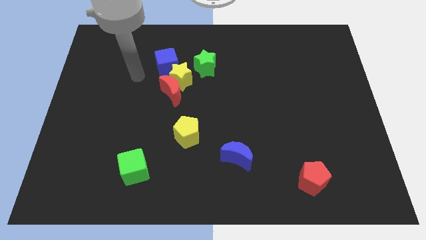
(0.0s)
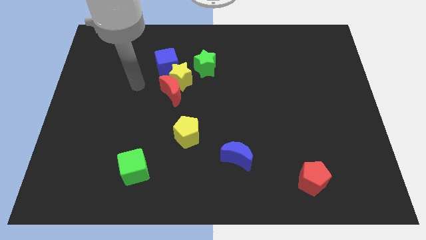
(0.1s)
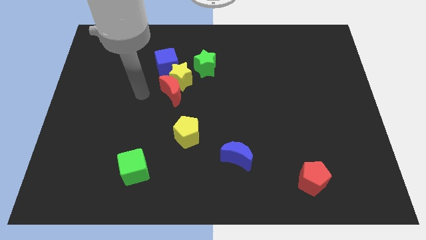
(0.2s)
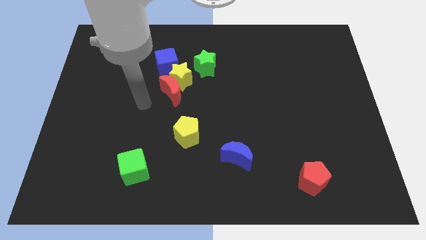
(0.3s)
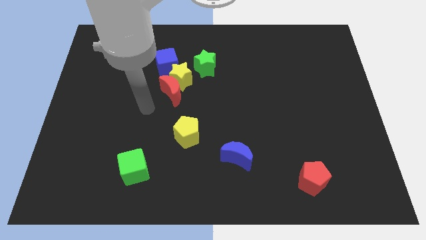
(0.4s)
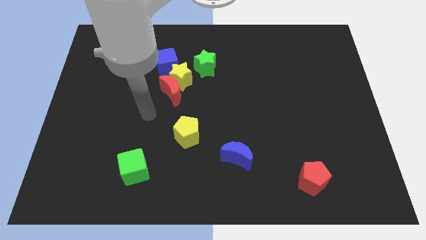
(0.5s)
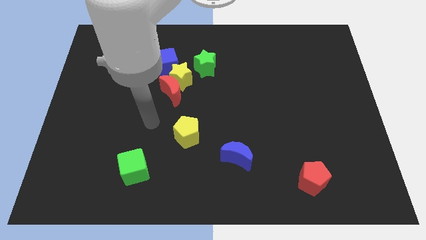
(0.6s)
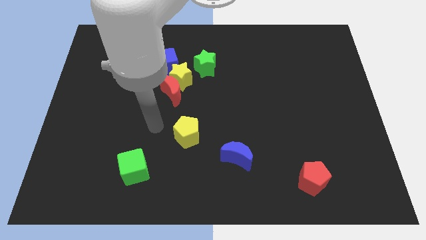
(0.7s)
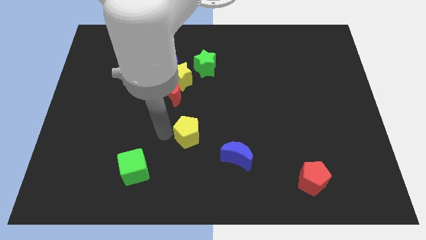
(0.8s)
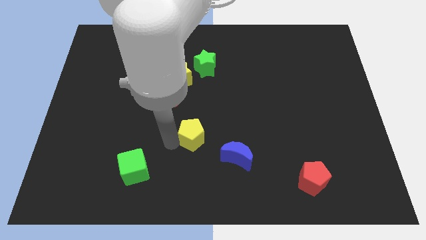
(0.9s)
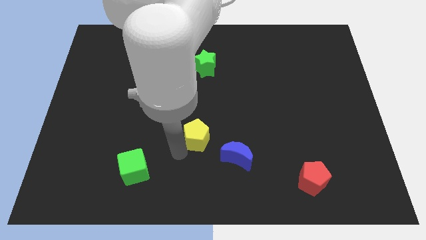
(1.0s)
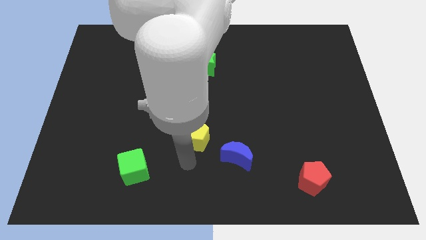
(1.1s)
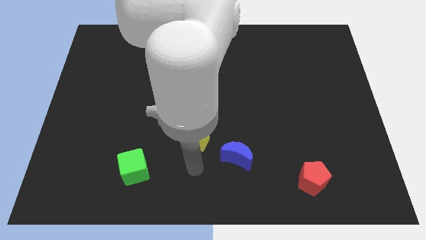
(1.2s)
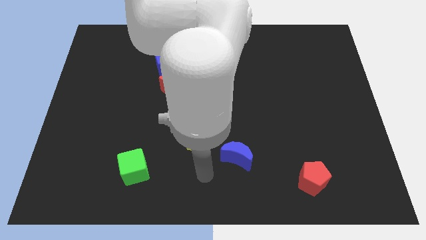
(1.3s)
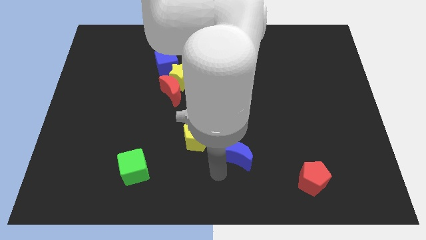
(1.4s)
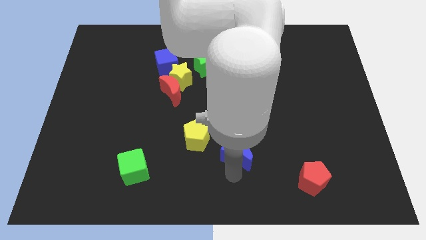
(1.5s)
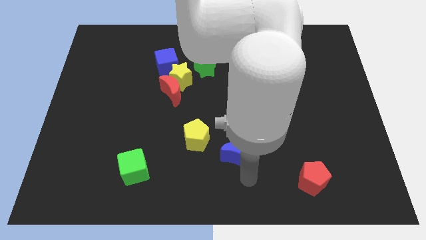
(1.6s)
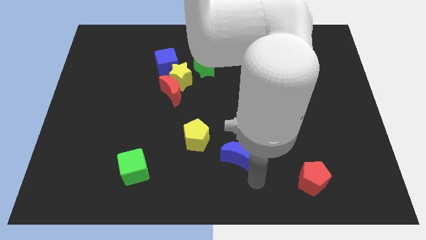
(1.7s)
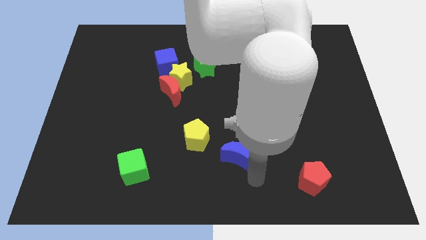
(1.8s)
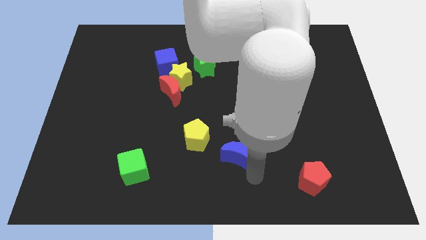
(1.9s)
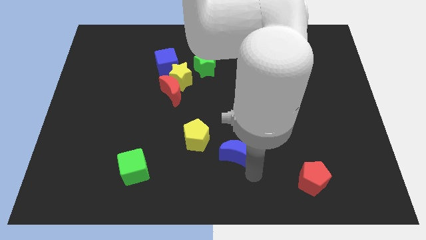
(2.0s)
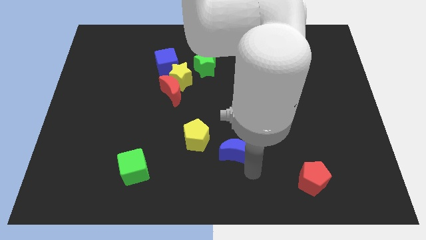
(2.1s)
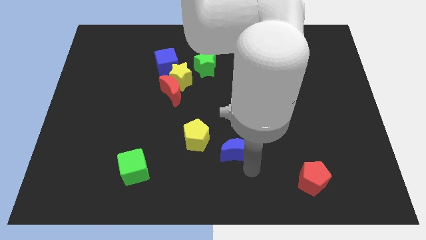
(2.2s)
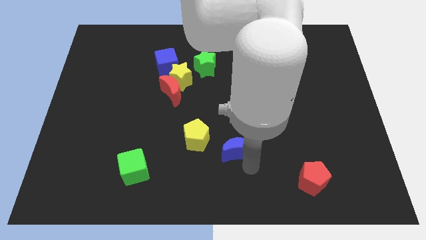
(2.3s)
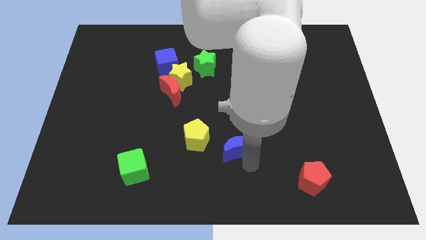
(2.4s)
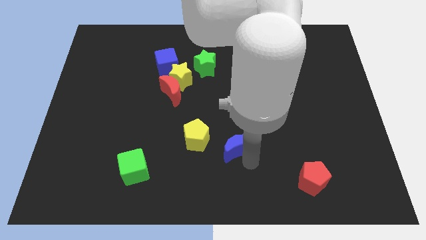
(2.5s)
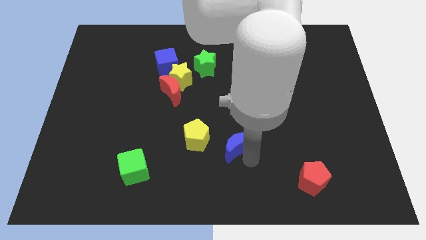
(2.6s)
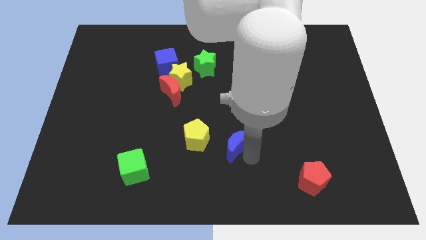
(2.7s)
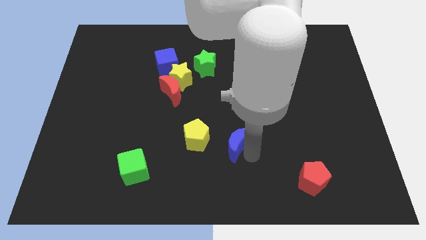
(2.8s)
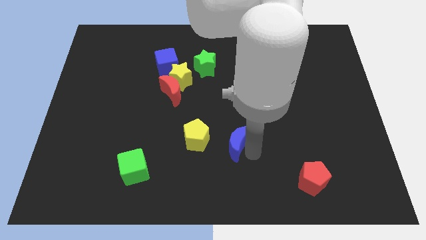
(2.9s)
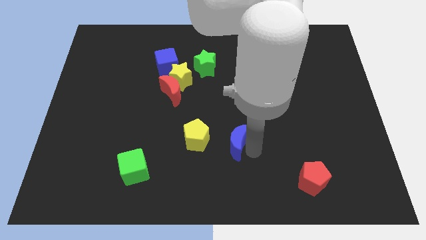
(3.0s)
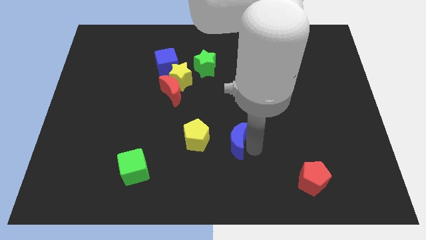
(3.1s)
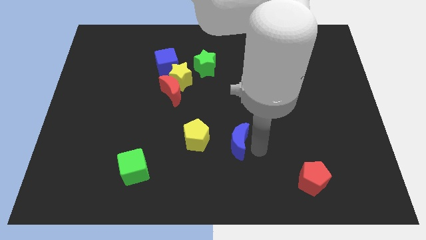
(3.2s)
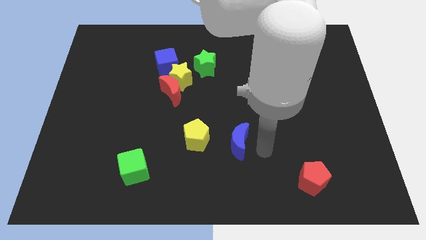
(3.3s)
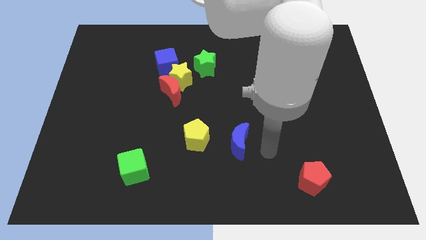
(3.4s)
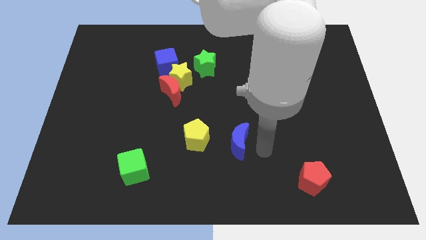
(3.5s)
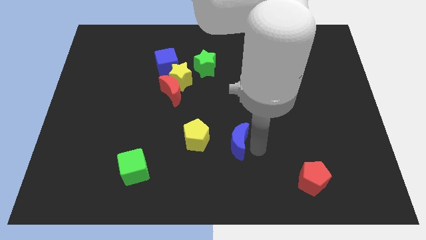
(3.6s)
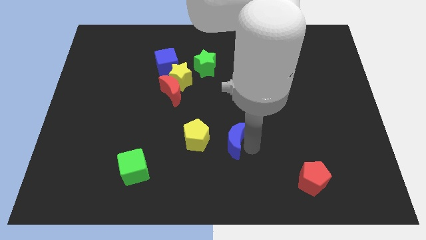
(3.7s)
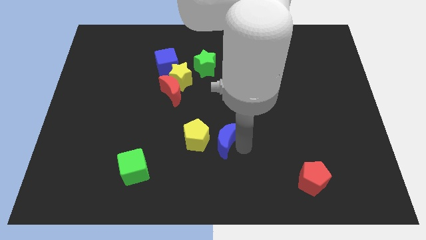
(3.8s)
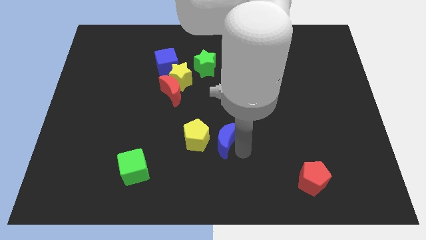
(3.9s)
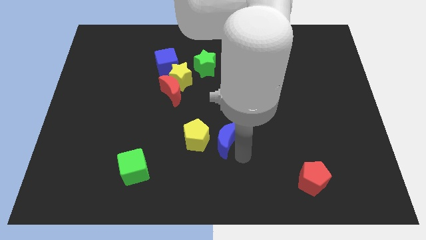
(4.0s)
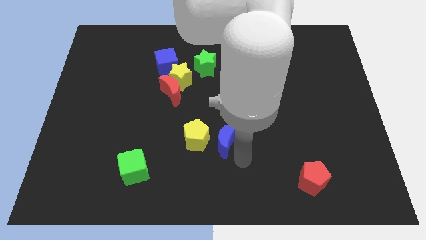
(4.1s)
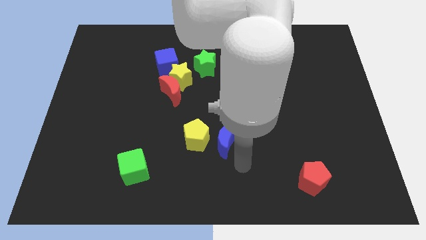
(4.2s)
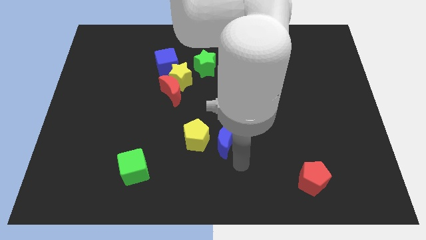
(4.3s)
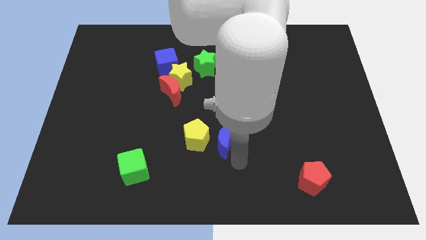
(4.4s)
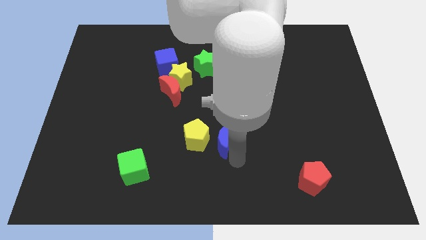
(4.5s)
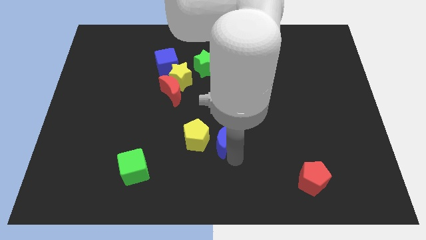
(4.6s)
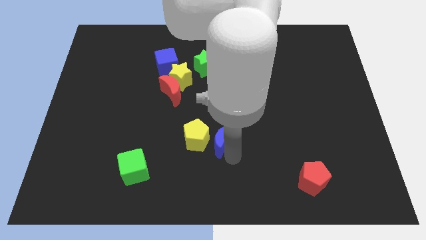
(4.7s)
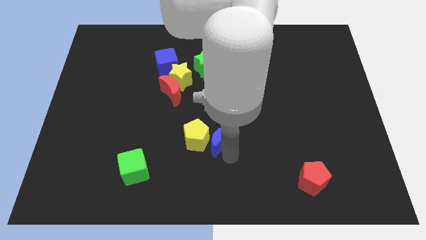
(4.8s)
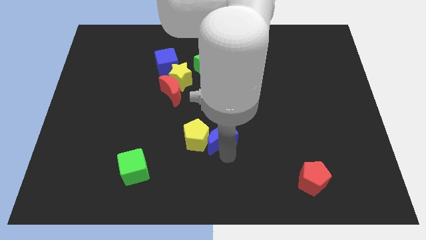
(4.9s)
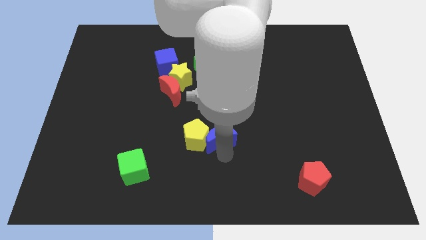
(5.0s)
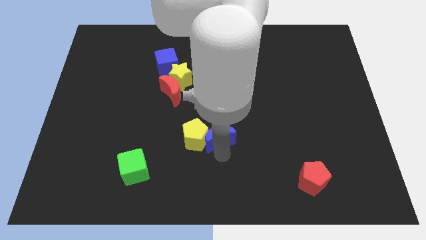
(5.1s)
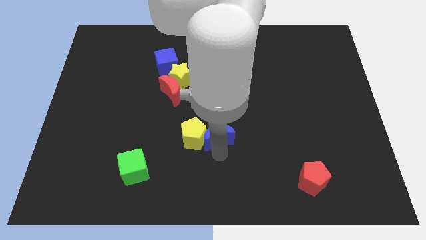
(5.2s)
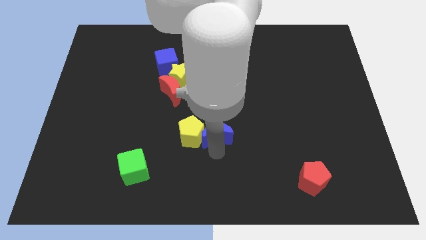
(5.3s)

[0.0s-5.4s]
push the blue moon upwards and to the left a little

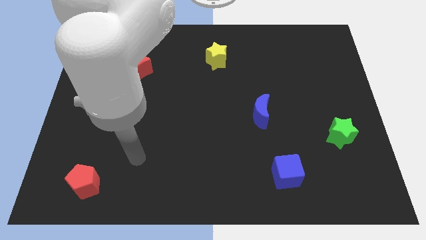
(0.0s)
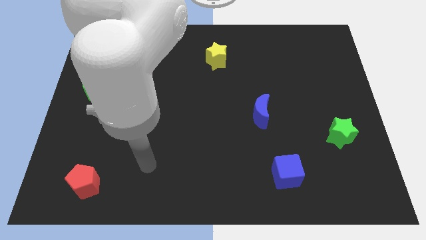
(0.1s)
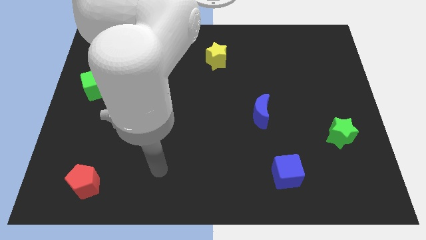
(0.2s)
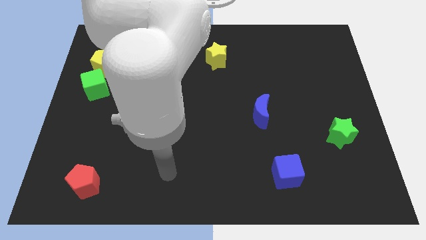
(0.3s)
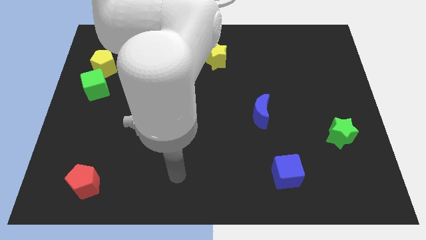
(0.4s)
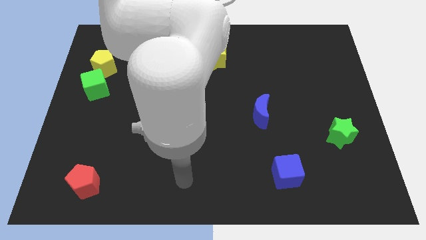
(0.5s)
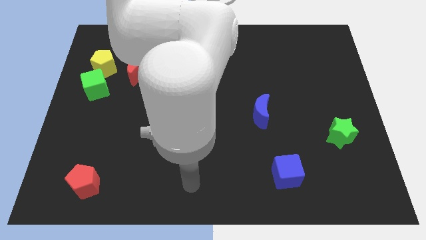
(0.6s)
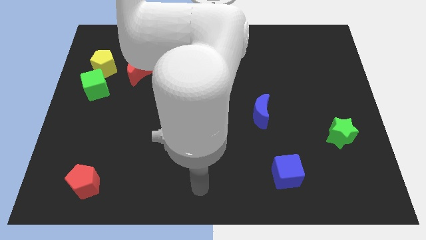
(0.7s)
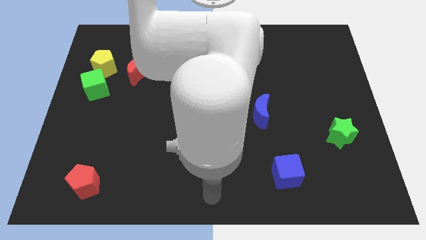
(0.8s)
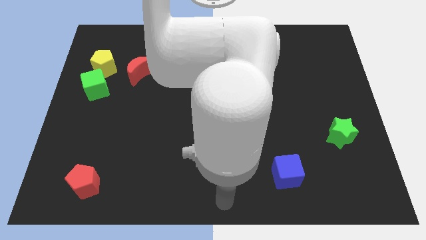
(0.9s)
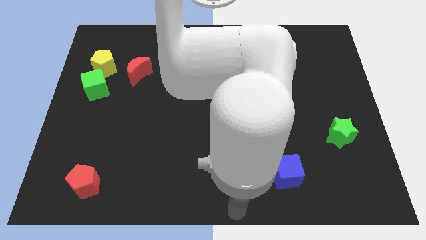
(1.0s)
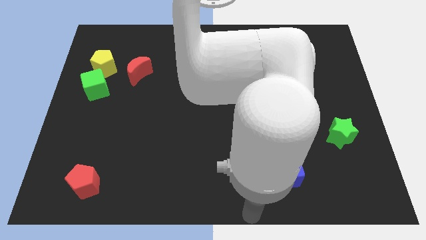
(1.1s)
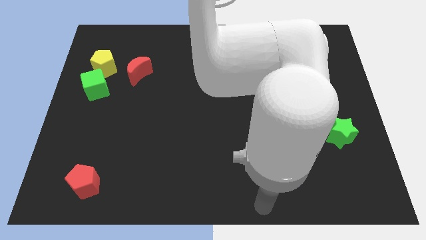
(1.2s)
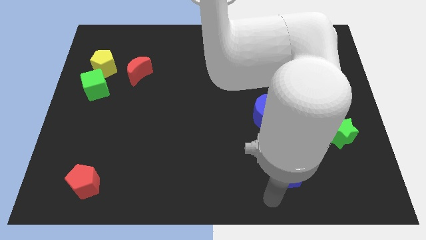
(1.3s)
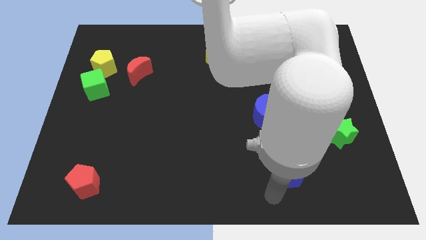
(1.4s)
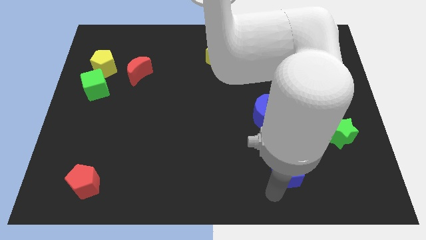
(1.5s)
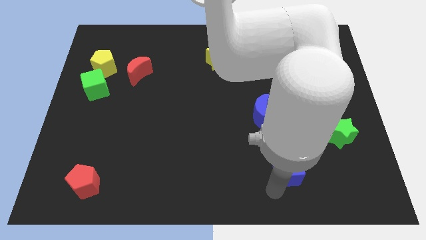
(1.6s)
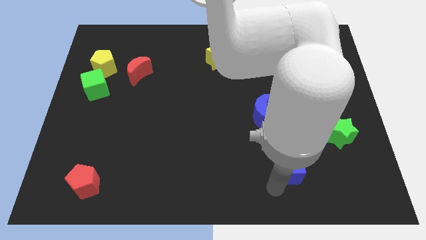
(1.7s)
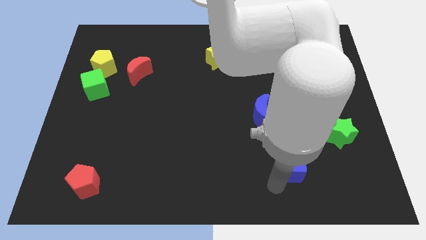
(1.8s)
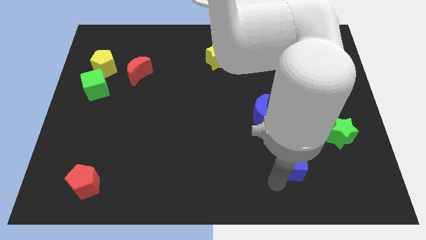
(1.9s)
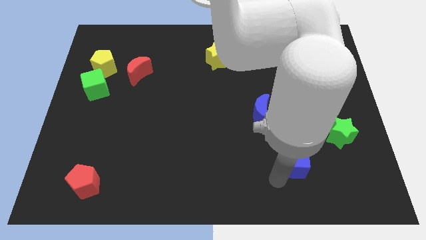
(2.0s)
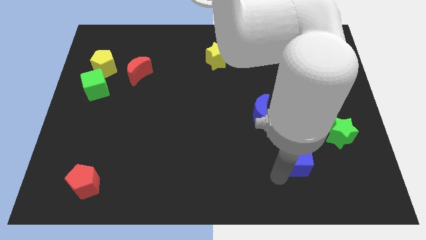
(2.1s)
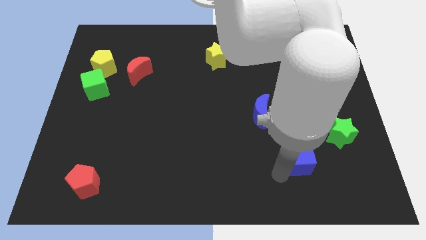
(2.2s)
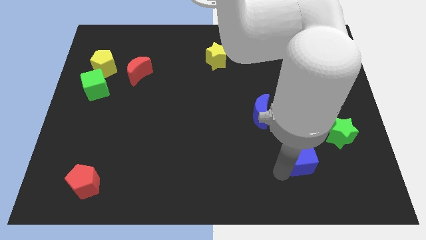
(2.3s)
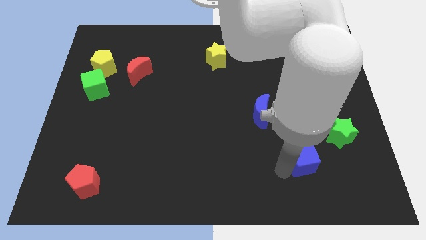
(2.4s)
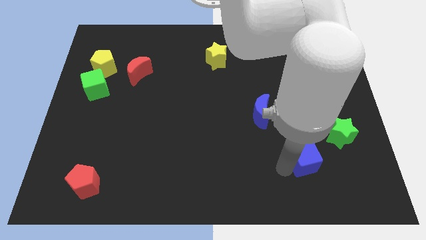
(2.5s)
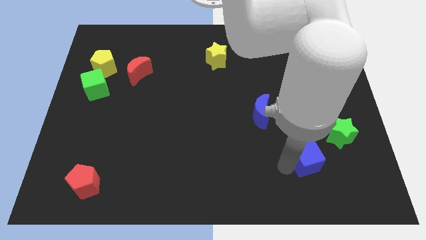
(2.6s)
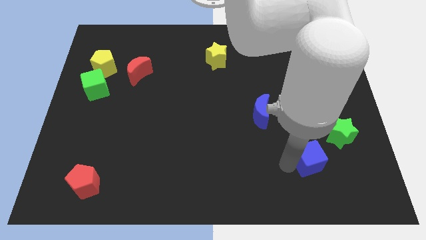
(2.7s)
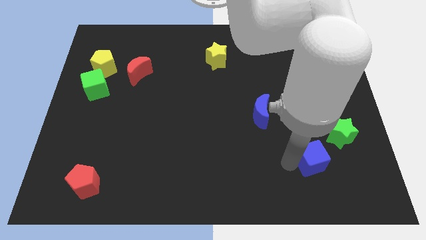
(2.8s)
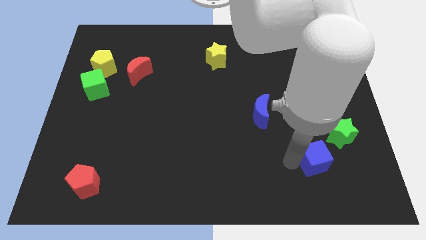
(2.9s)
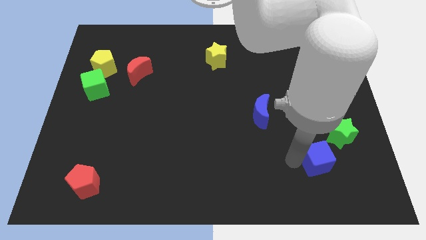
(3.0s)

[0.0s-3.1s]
slide the blue cube upwards and then to the right a bit
